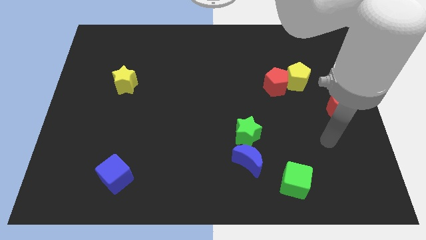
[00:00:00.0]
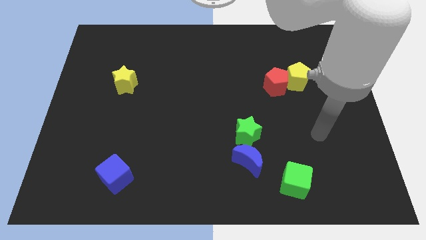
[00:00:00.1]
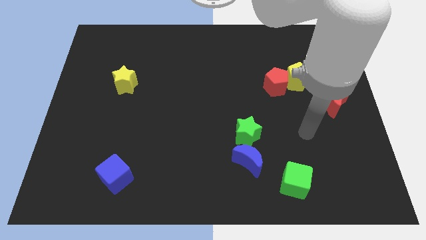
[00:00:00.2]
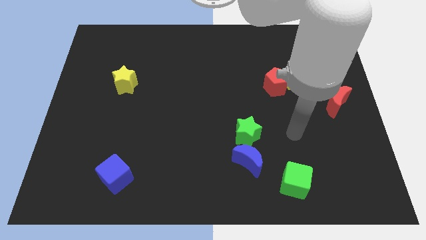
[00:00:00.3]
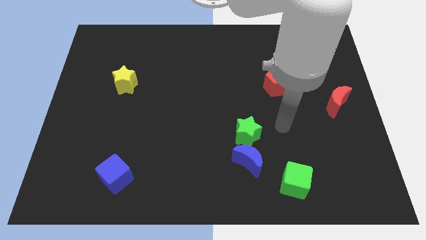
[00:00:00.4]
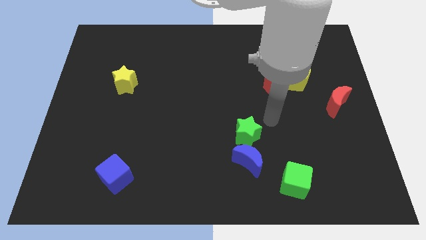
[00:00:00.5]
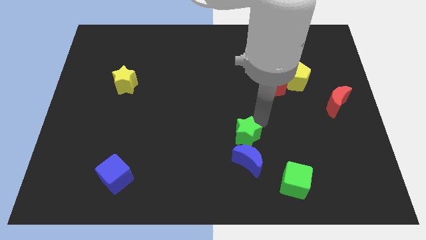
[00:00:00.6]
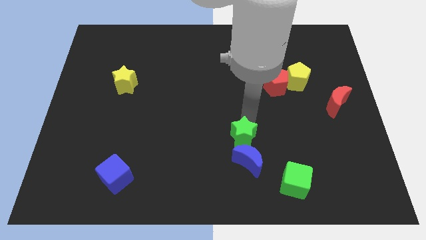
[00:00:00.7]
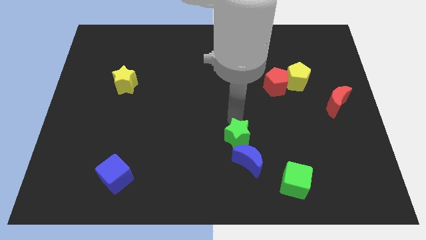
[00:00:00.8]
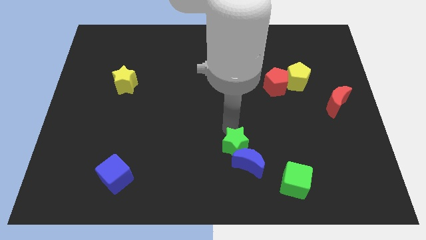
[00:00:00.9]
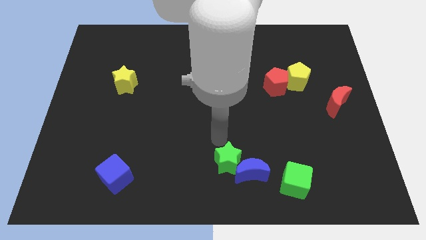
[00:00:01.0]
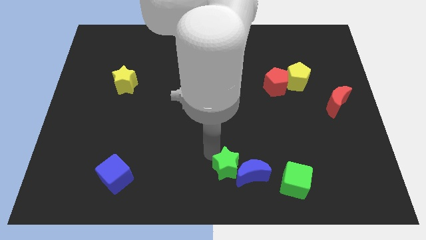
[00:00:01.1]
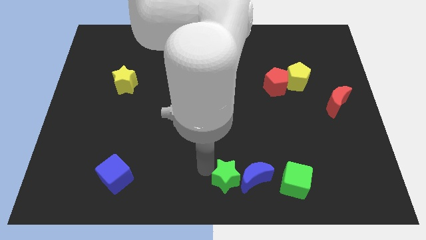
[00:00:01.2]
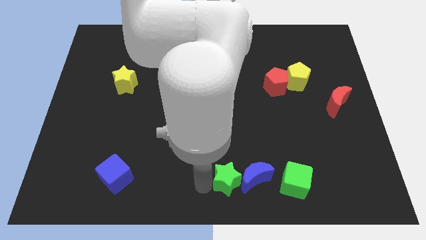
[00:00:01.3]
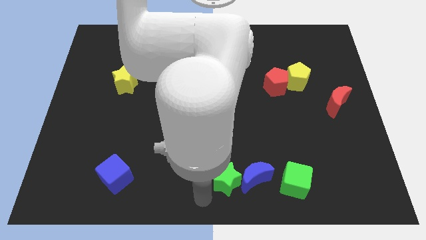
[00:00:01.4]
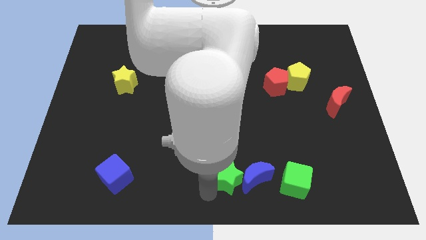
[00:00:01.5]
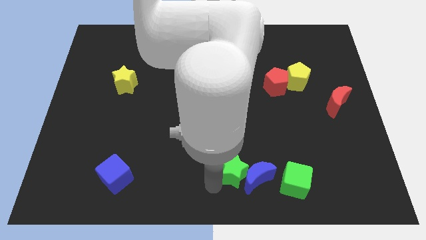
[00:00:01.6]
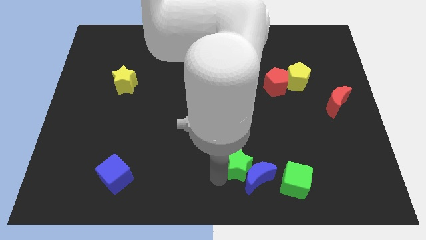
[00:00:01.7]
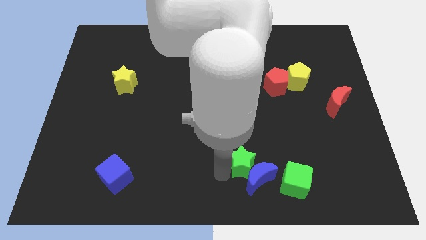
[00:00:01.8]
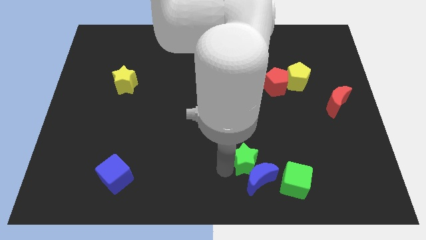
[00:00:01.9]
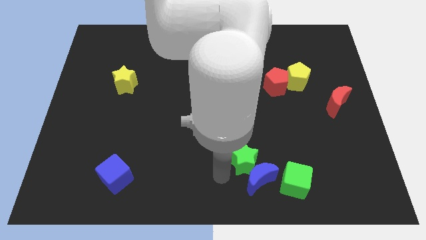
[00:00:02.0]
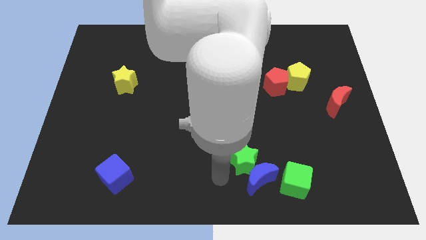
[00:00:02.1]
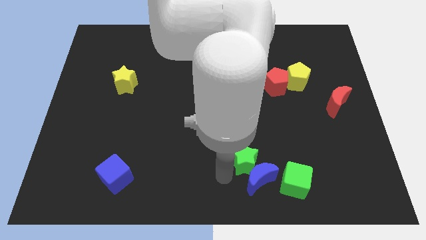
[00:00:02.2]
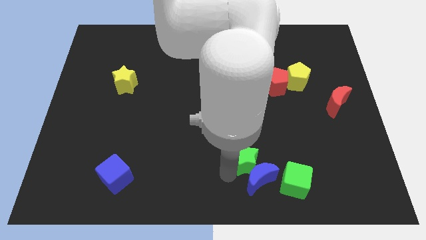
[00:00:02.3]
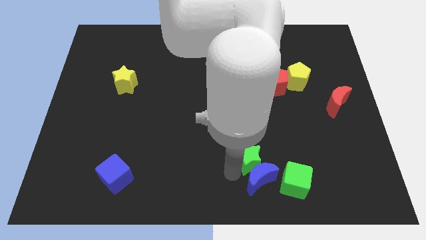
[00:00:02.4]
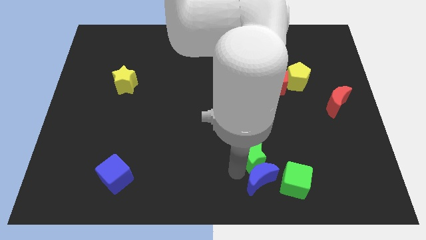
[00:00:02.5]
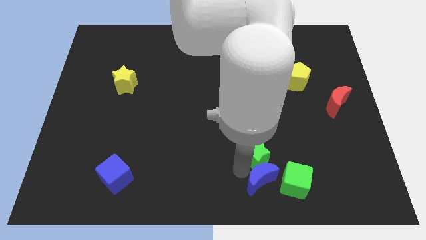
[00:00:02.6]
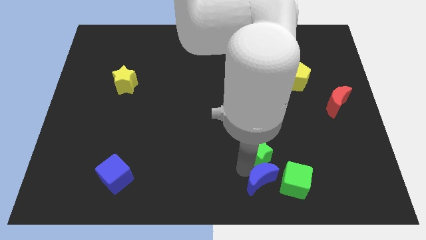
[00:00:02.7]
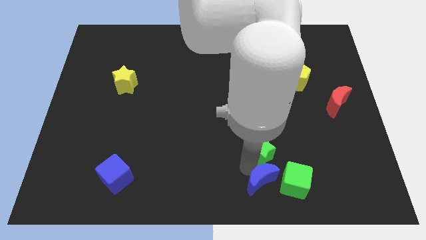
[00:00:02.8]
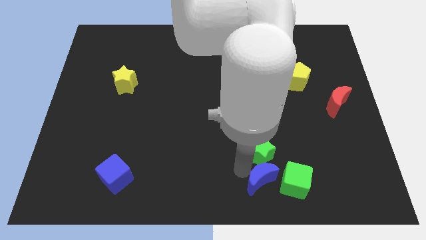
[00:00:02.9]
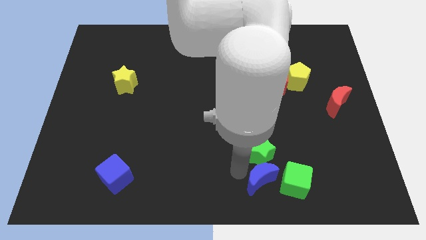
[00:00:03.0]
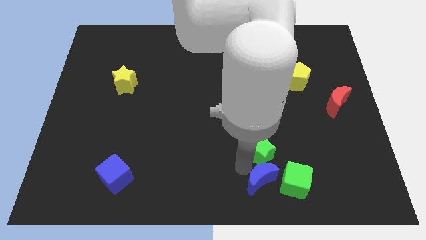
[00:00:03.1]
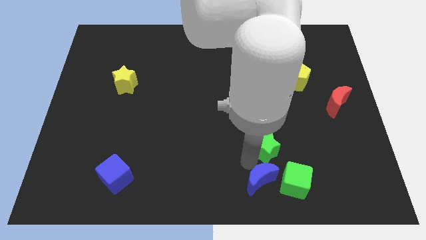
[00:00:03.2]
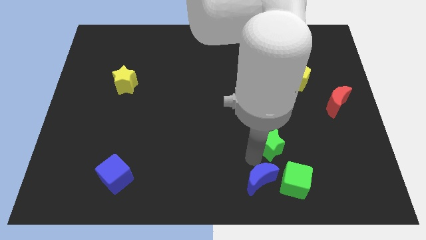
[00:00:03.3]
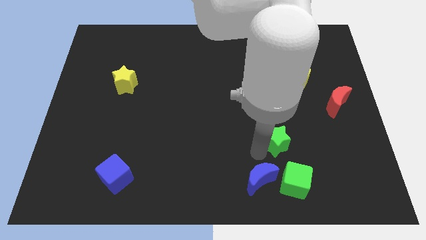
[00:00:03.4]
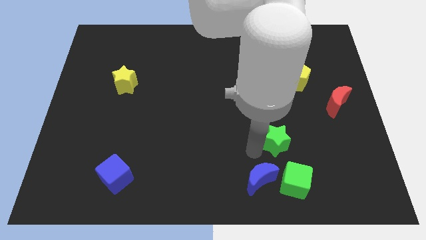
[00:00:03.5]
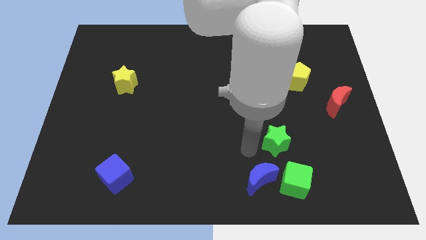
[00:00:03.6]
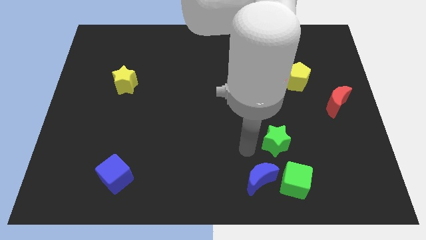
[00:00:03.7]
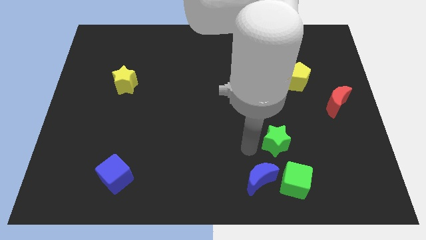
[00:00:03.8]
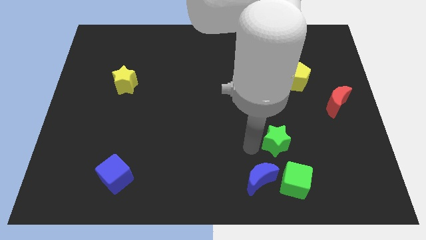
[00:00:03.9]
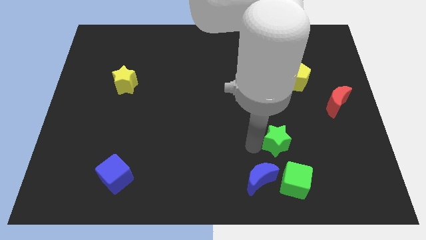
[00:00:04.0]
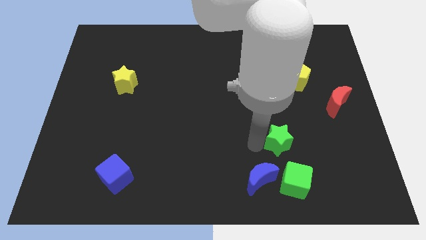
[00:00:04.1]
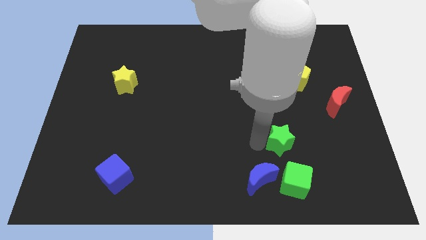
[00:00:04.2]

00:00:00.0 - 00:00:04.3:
move the green star somewhat right

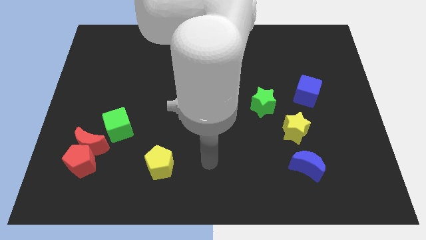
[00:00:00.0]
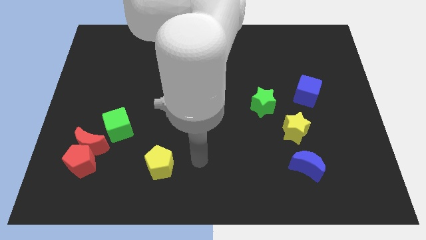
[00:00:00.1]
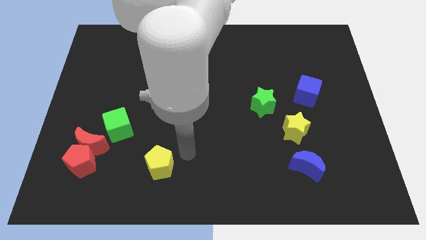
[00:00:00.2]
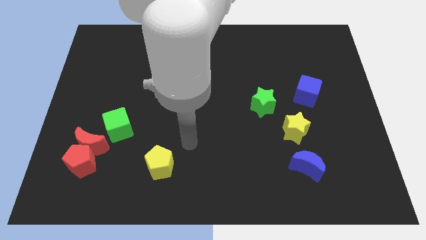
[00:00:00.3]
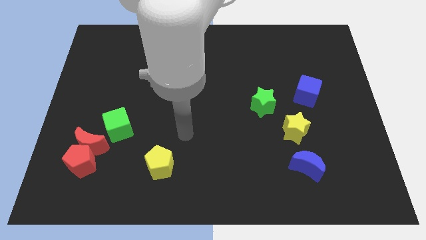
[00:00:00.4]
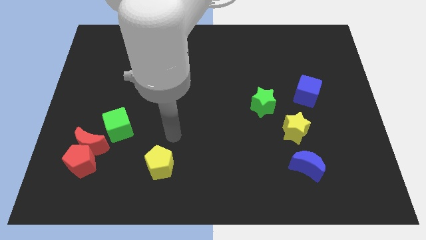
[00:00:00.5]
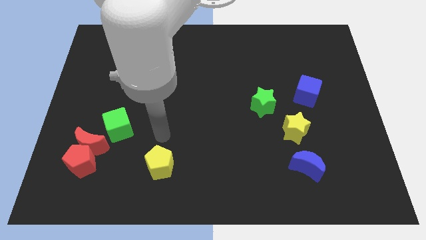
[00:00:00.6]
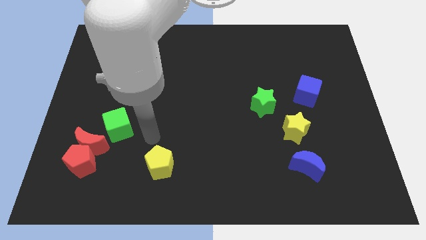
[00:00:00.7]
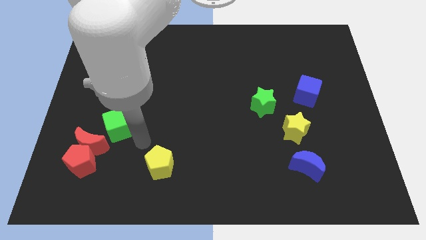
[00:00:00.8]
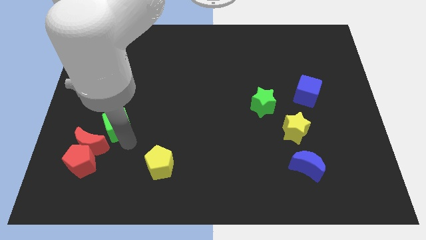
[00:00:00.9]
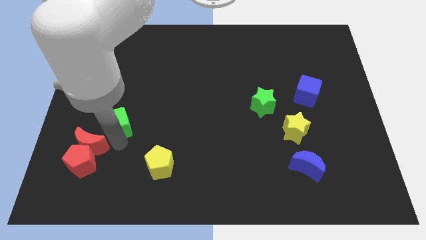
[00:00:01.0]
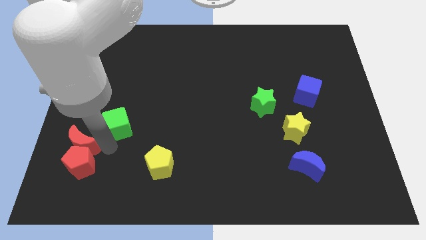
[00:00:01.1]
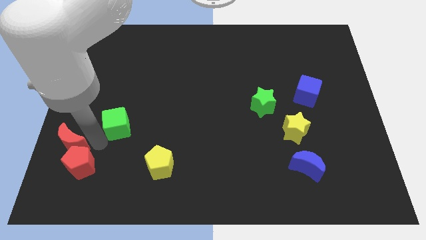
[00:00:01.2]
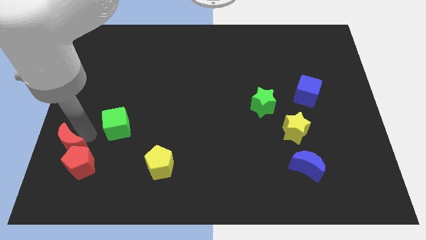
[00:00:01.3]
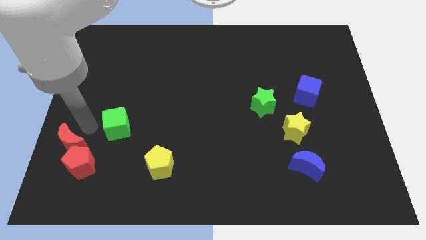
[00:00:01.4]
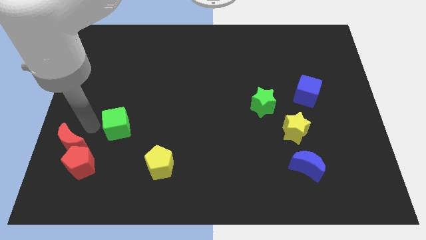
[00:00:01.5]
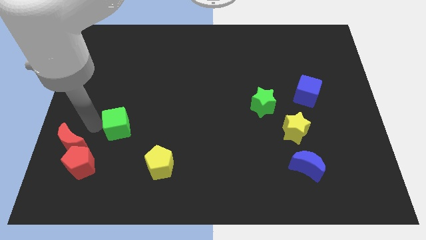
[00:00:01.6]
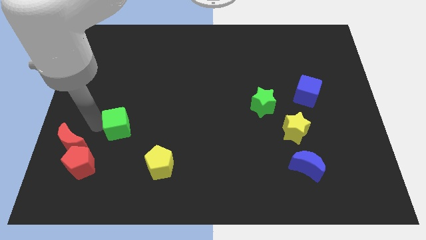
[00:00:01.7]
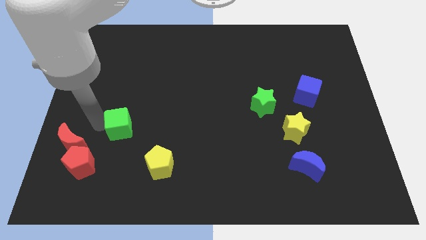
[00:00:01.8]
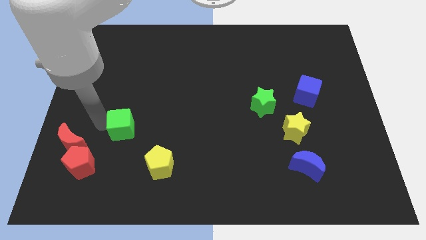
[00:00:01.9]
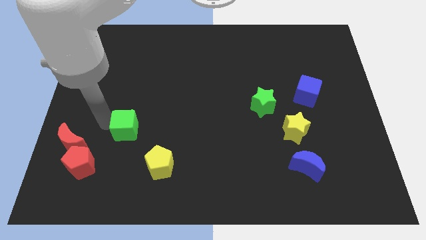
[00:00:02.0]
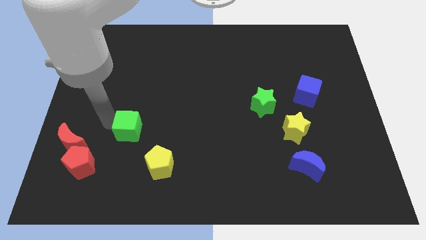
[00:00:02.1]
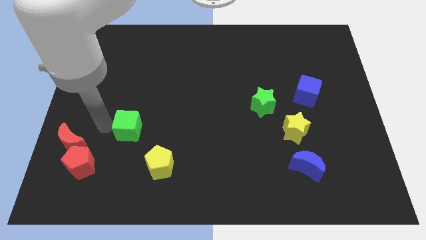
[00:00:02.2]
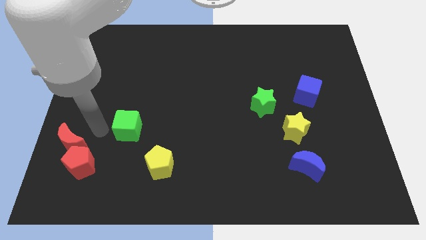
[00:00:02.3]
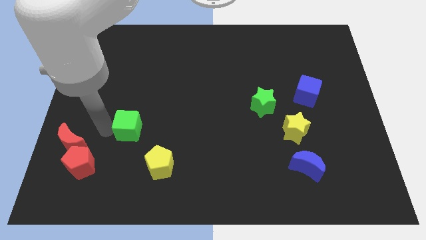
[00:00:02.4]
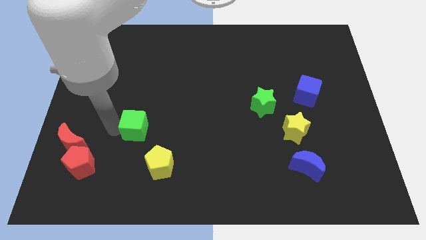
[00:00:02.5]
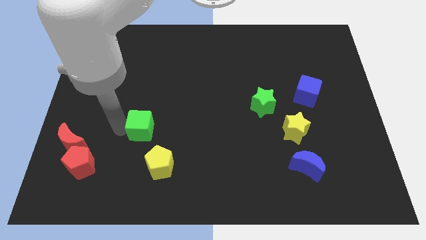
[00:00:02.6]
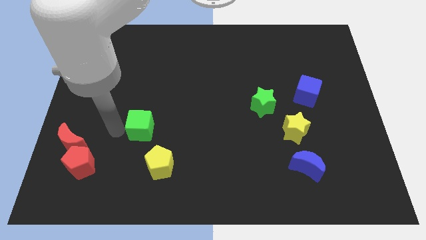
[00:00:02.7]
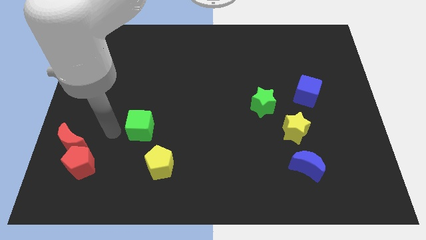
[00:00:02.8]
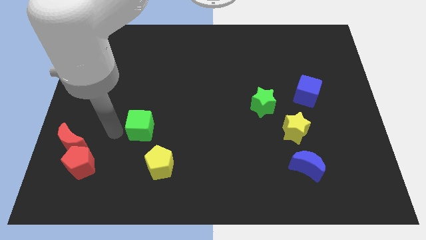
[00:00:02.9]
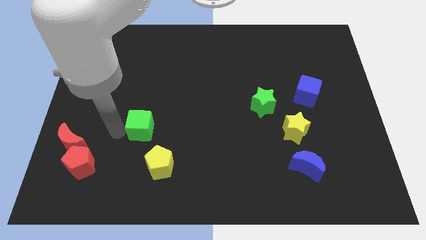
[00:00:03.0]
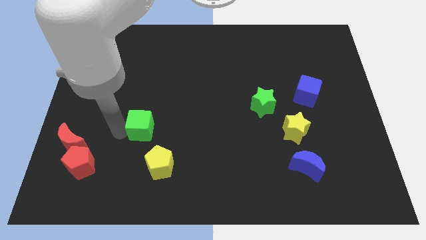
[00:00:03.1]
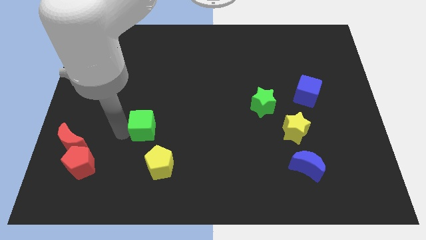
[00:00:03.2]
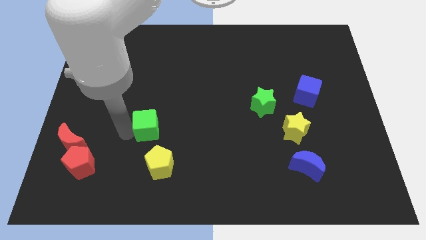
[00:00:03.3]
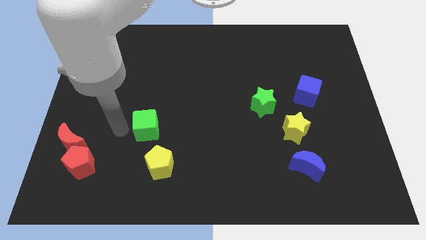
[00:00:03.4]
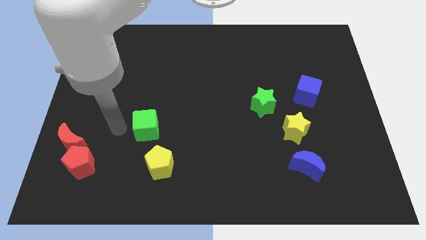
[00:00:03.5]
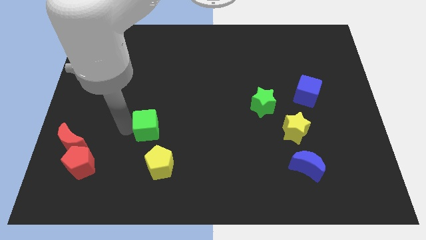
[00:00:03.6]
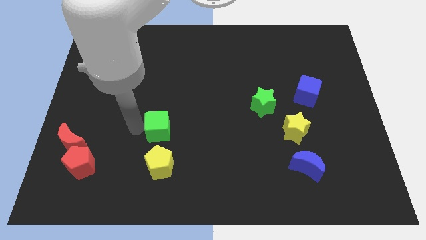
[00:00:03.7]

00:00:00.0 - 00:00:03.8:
slightly slide the green cube to the right
